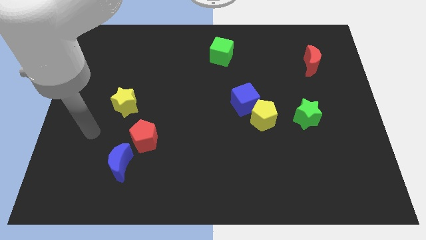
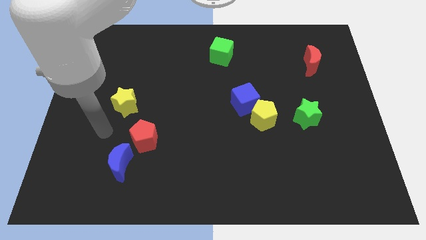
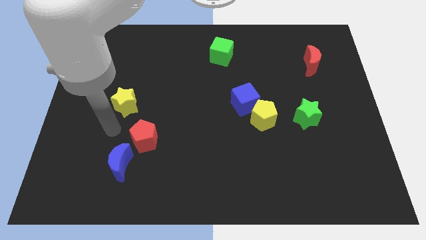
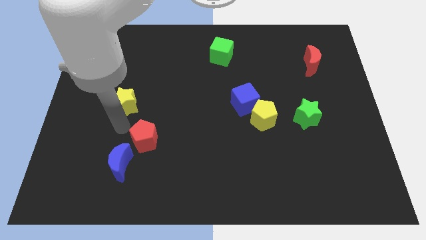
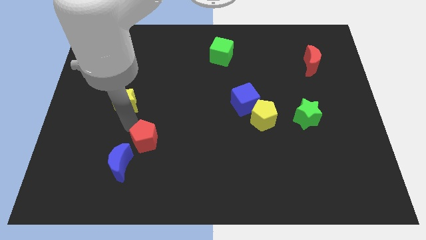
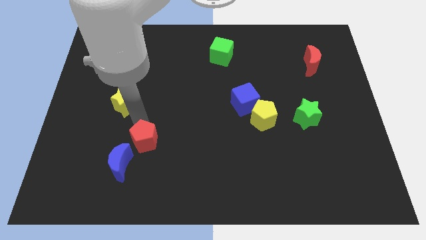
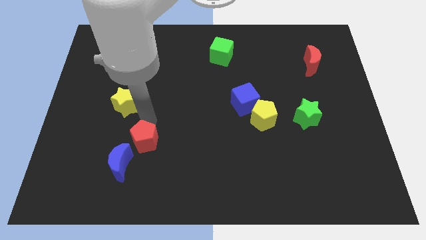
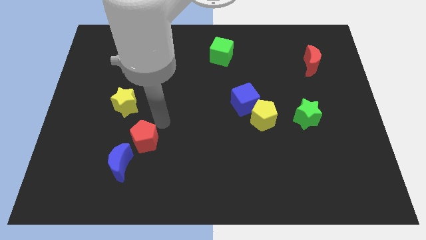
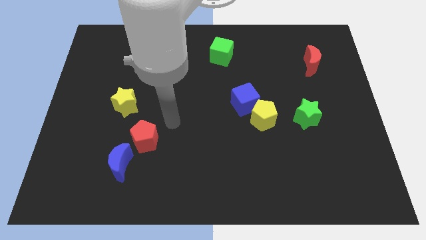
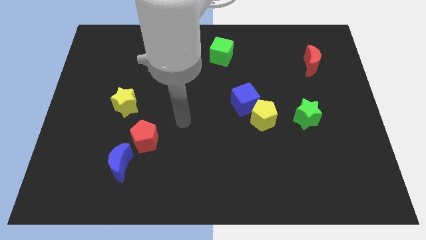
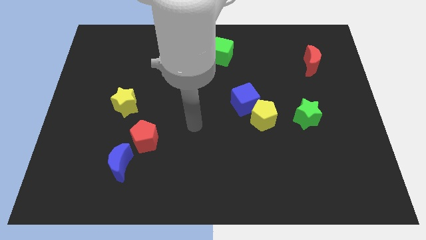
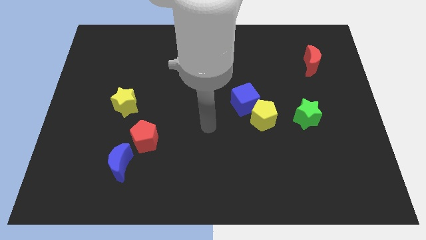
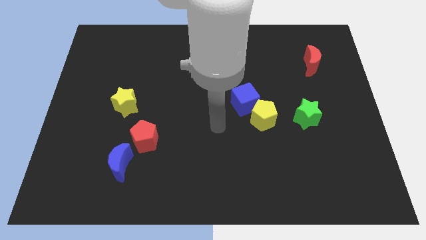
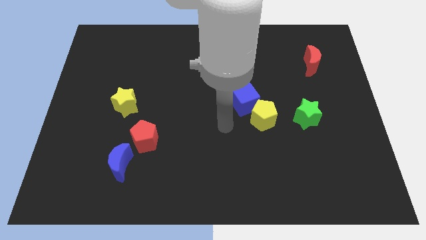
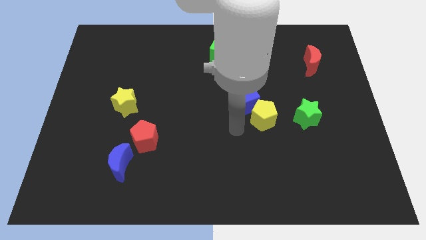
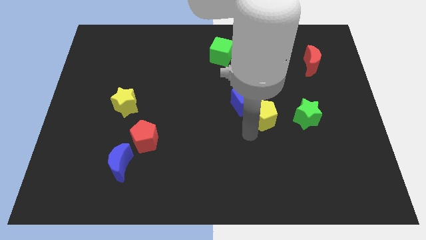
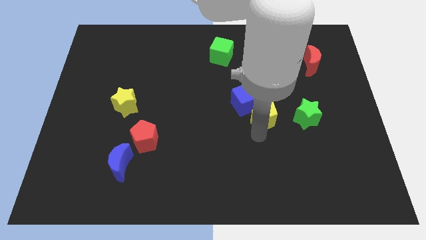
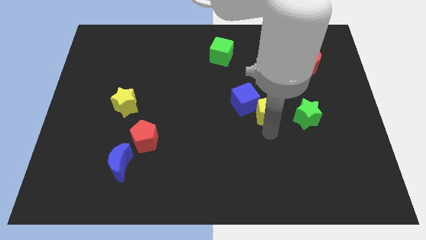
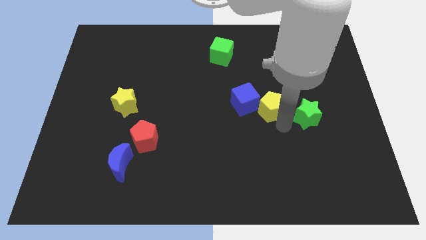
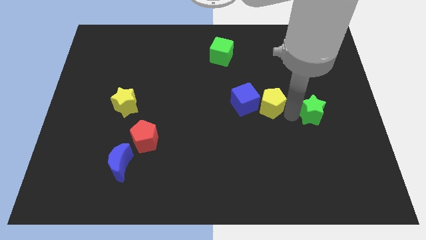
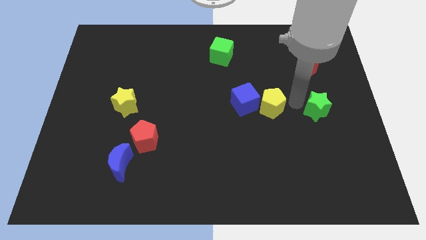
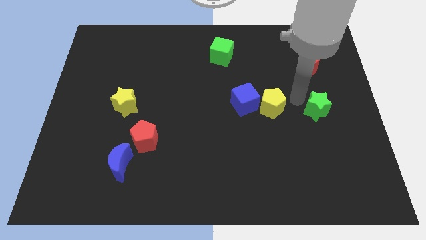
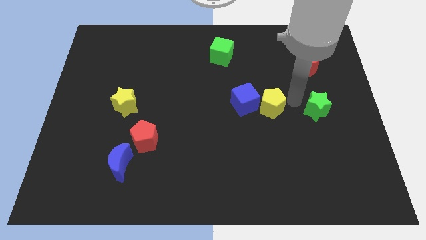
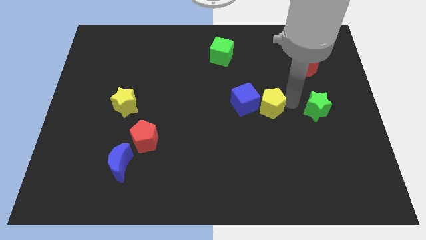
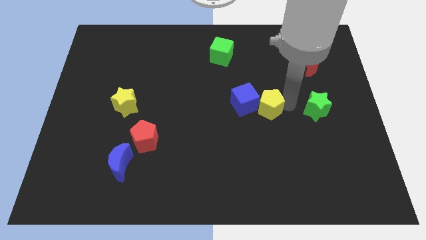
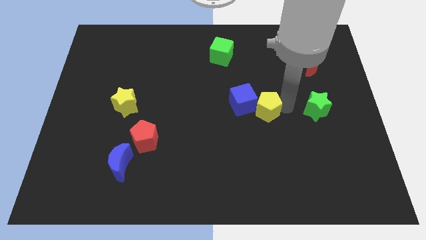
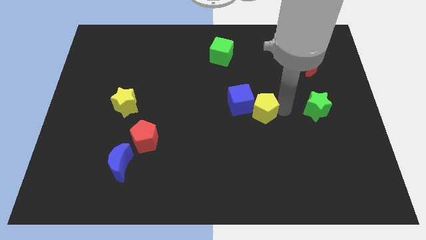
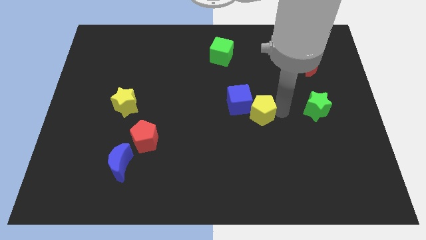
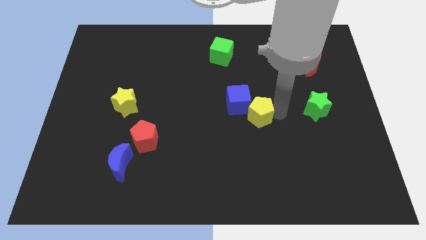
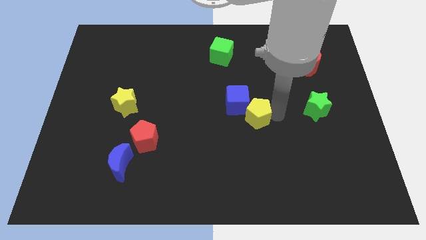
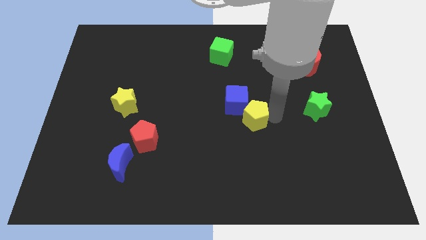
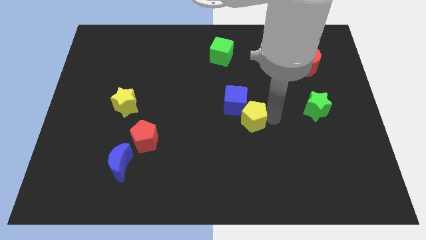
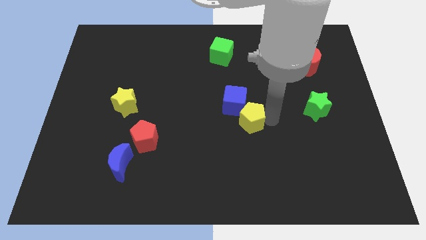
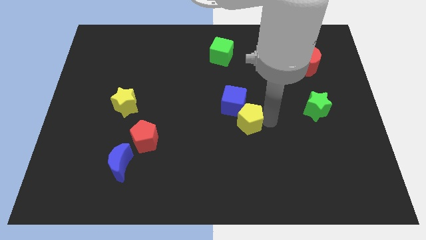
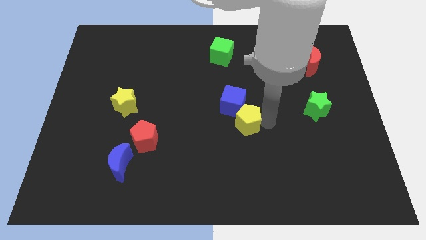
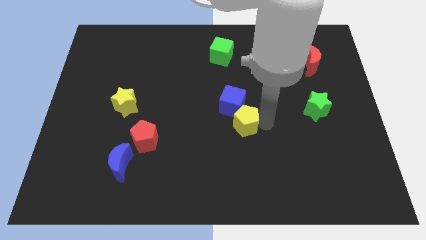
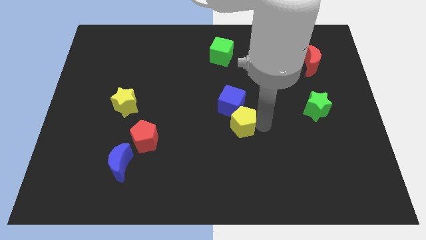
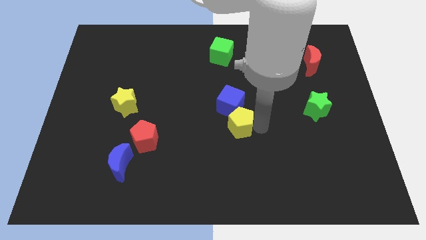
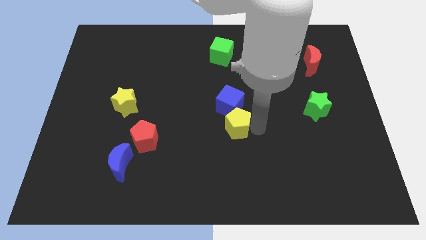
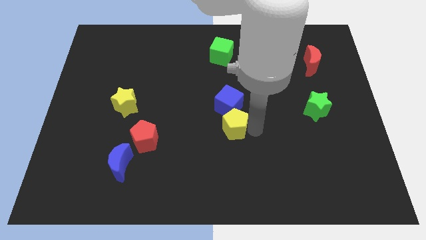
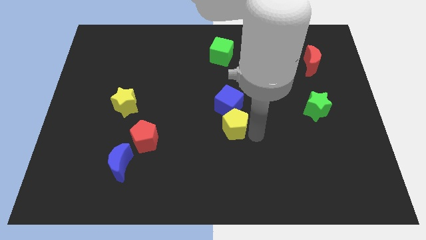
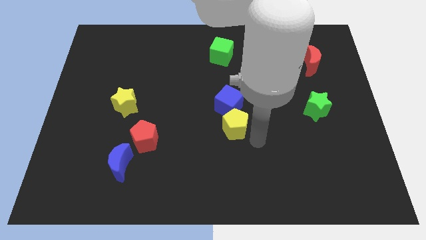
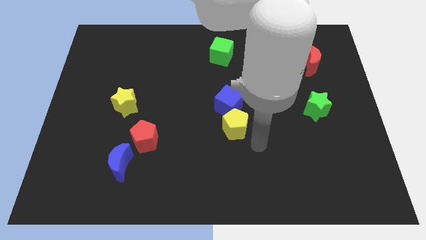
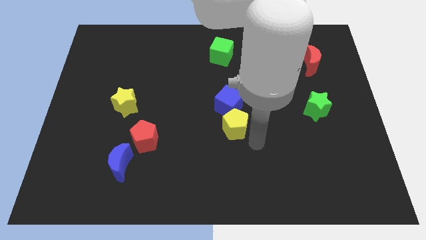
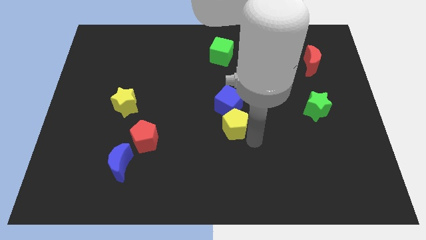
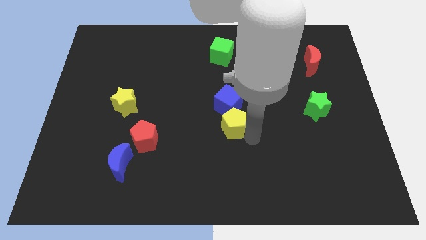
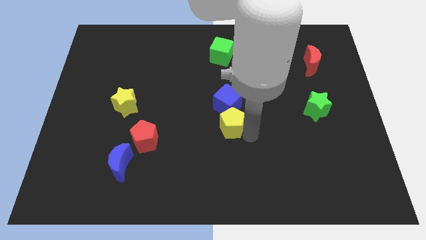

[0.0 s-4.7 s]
slightly move the yellow pentagon left

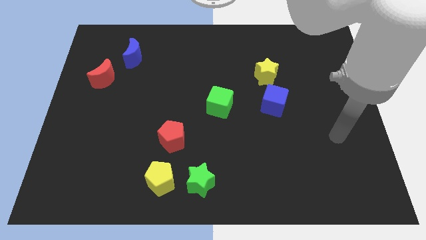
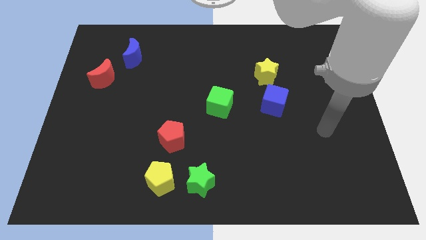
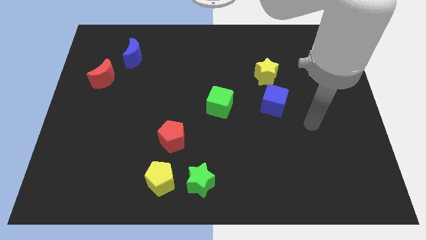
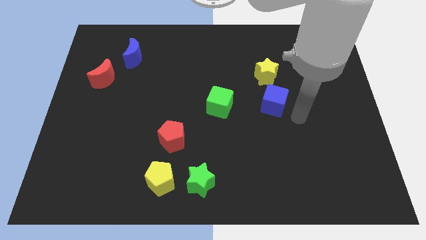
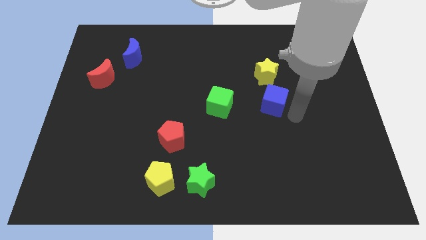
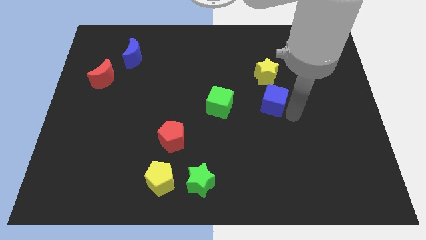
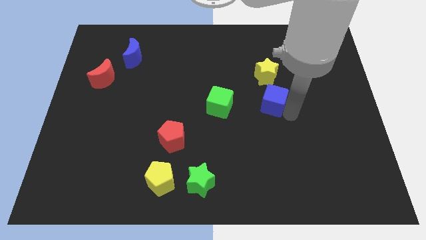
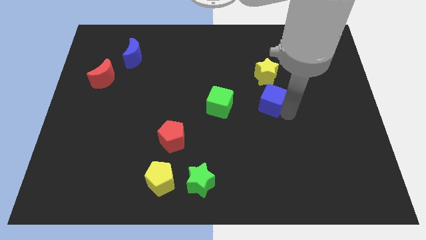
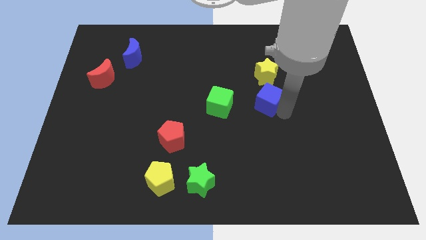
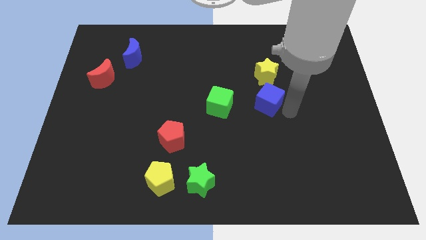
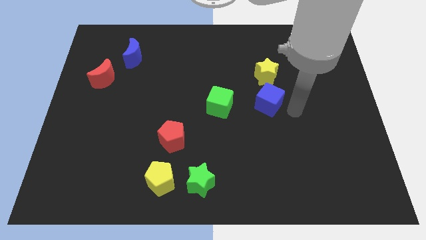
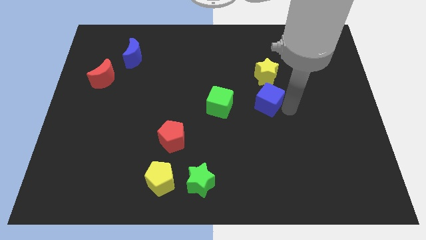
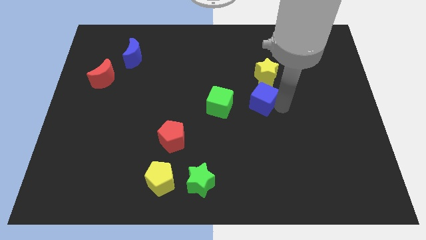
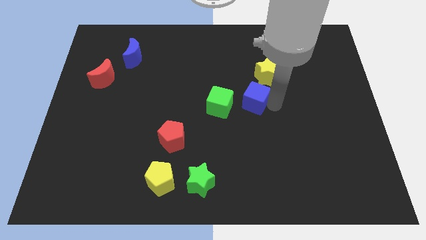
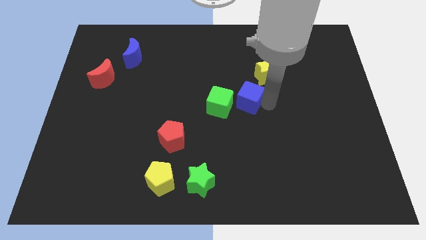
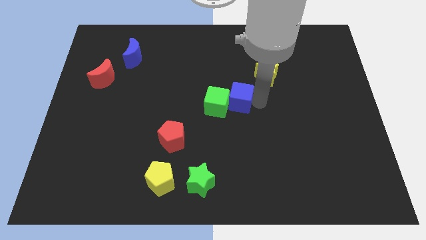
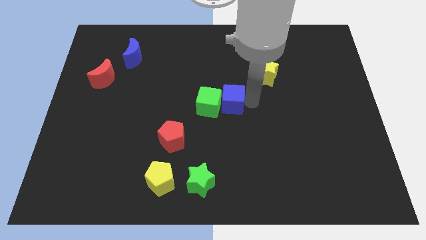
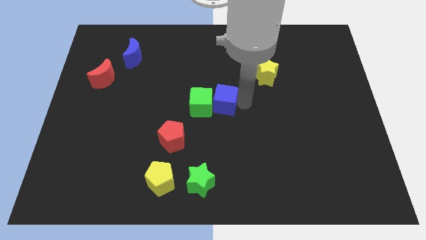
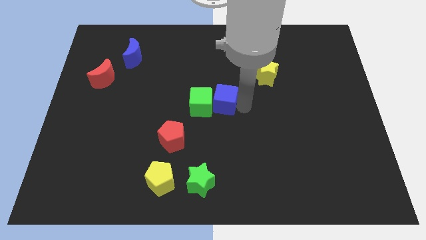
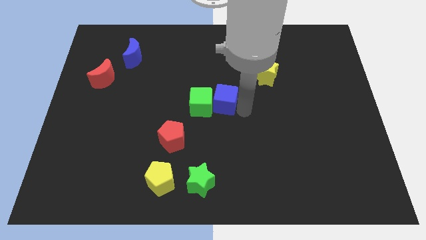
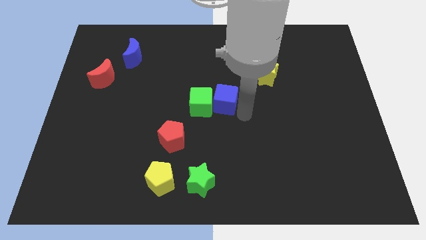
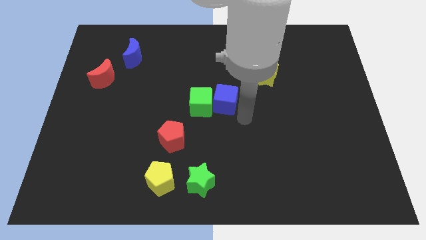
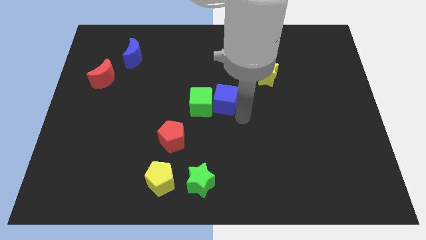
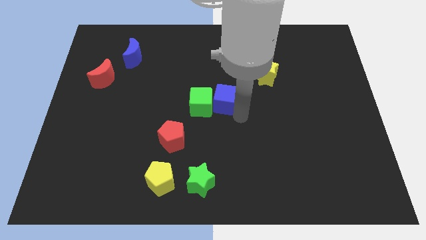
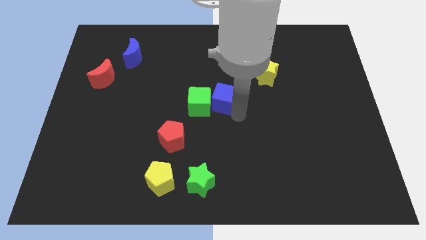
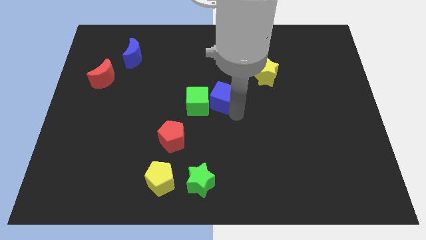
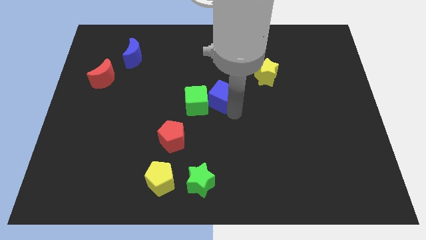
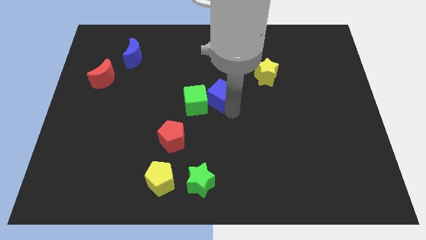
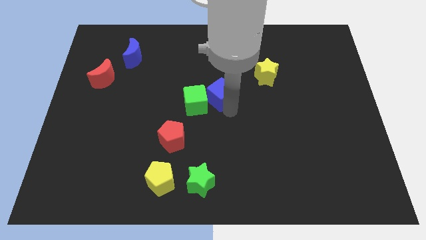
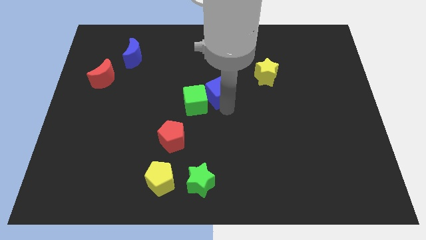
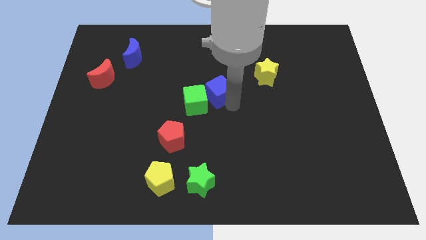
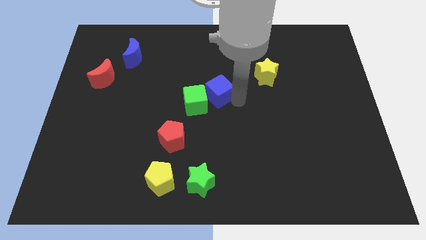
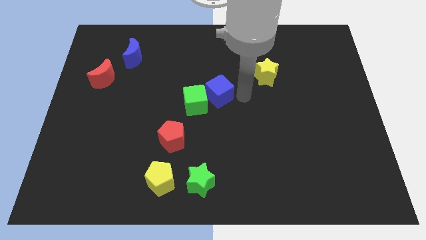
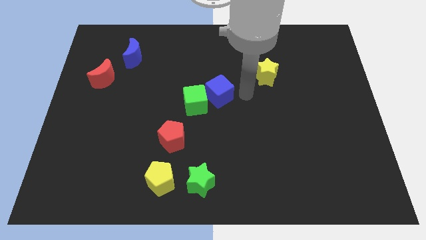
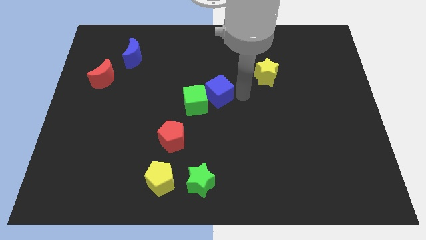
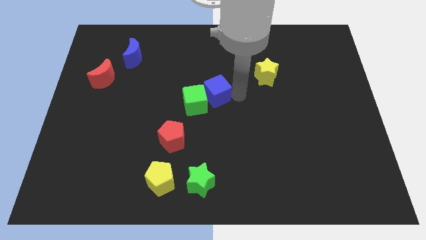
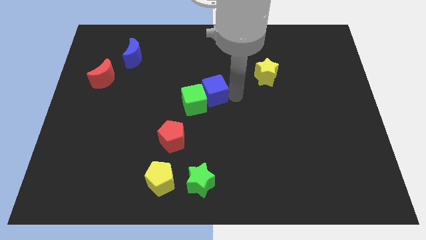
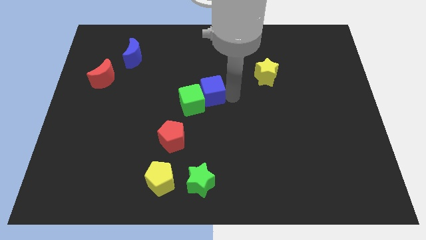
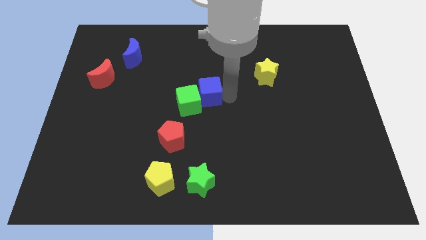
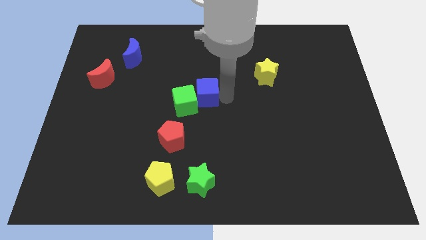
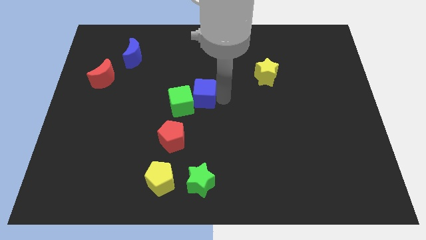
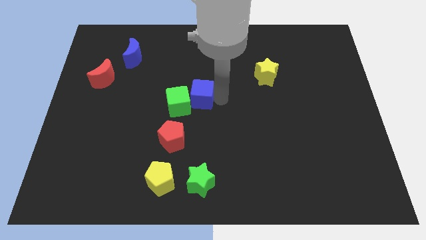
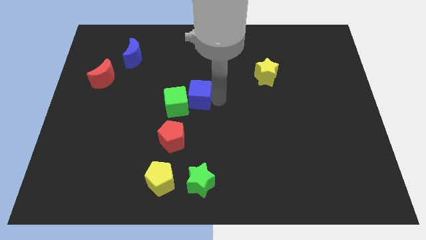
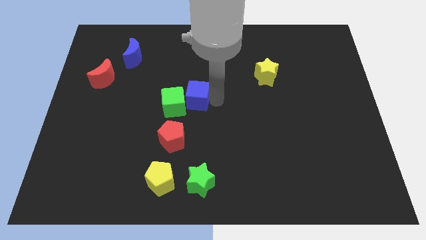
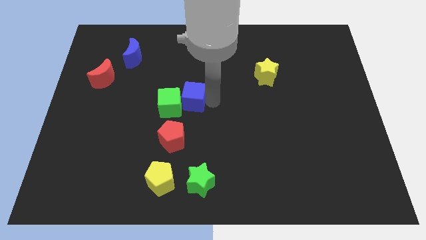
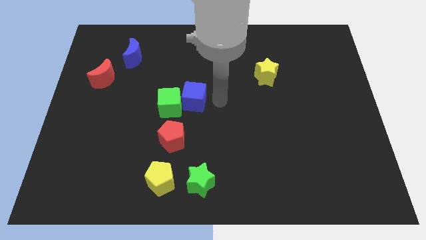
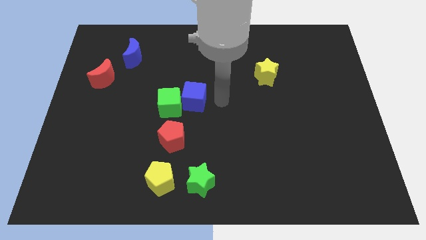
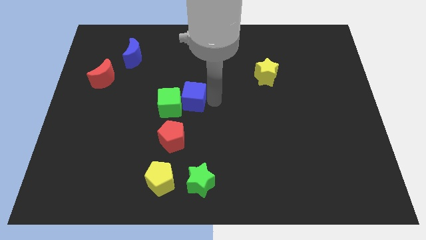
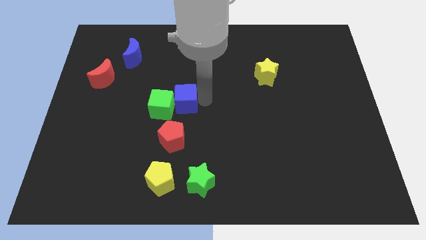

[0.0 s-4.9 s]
push the blue cube left
